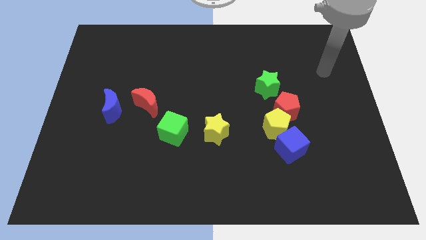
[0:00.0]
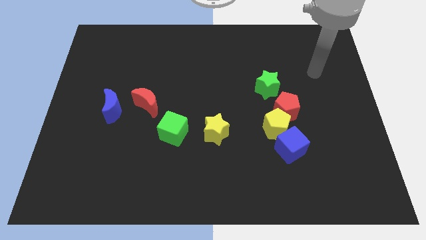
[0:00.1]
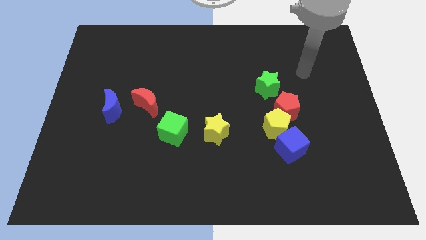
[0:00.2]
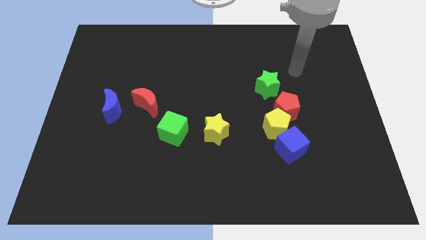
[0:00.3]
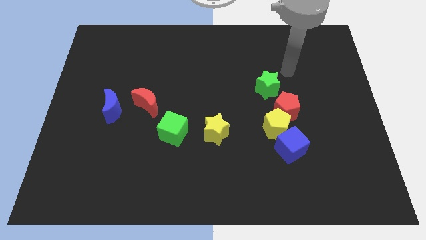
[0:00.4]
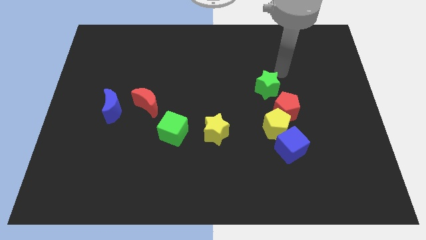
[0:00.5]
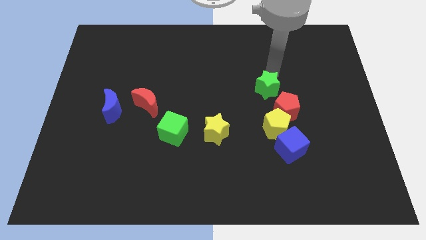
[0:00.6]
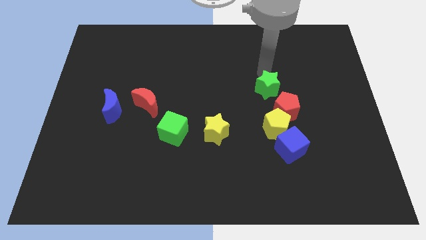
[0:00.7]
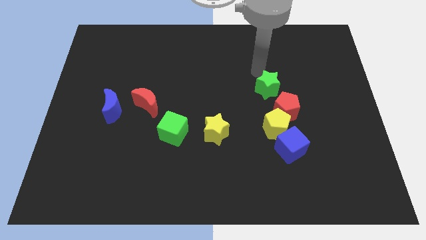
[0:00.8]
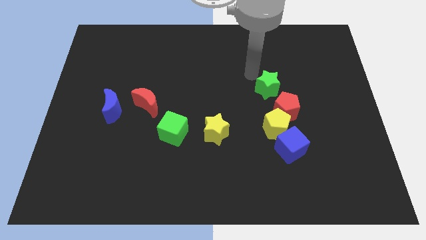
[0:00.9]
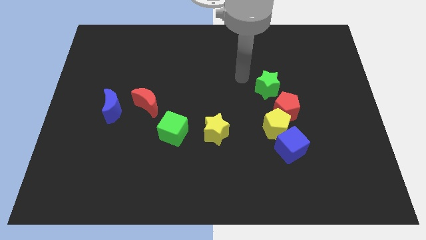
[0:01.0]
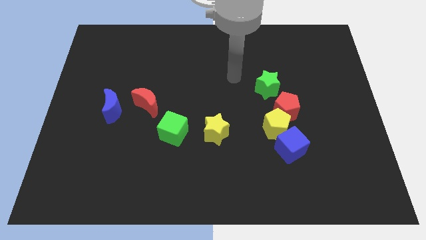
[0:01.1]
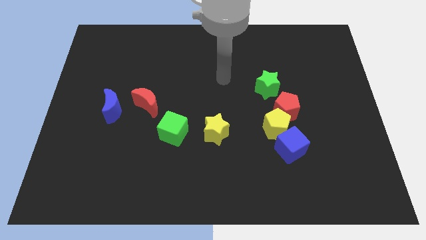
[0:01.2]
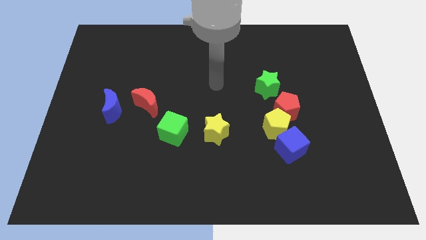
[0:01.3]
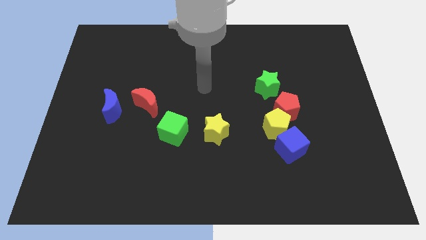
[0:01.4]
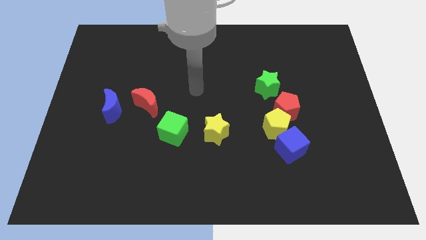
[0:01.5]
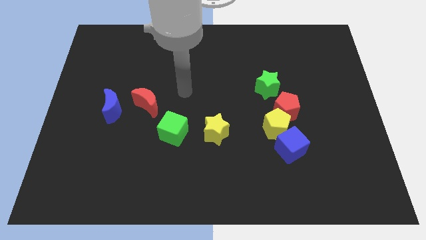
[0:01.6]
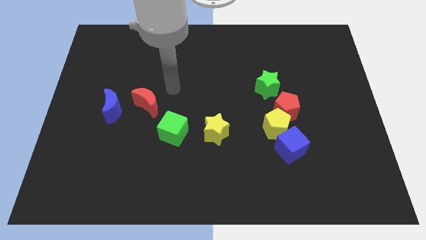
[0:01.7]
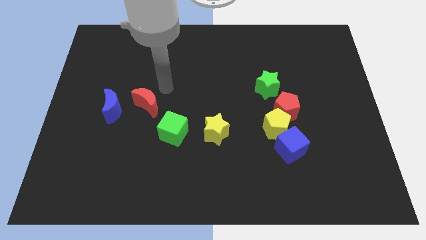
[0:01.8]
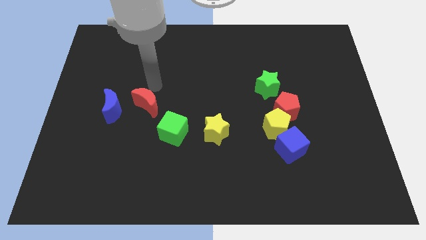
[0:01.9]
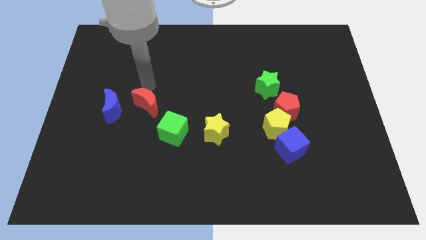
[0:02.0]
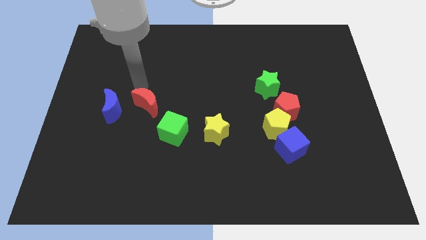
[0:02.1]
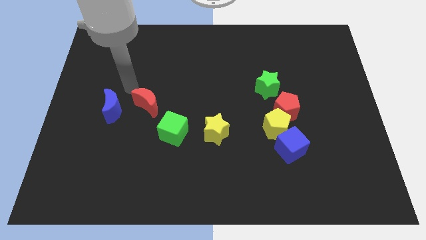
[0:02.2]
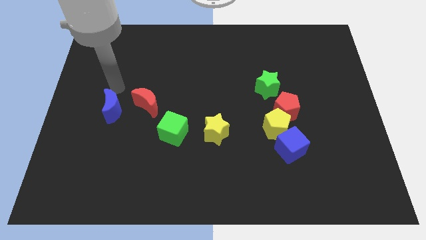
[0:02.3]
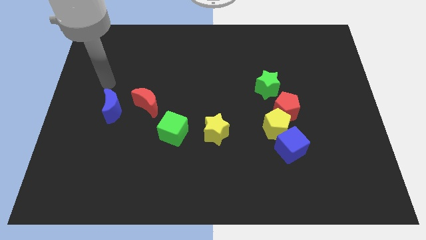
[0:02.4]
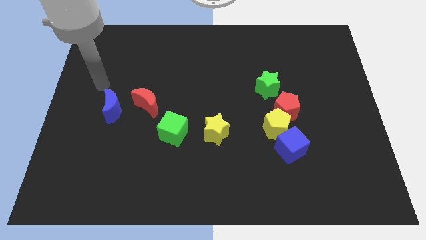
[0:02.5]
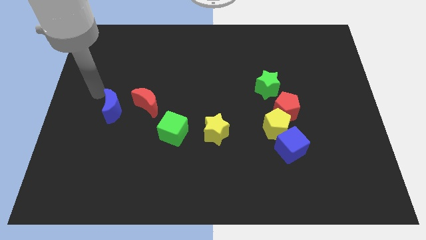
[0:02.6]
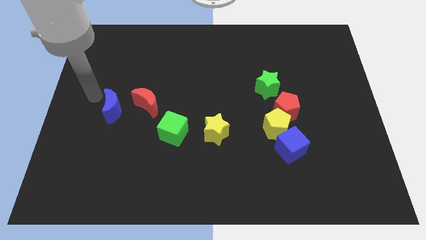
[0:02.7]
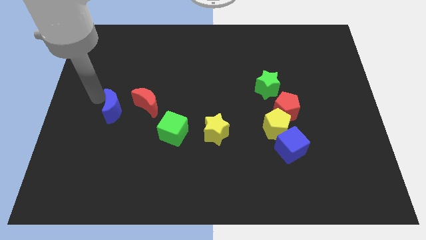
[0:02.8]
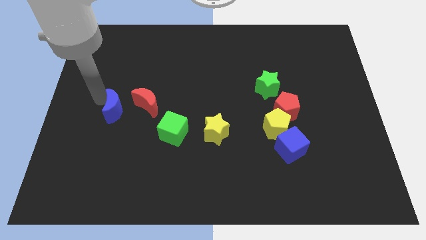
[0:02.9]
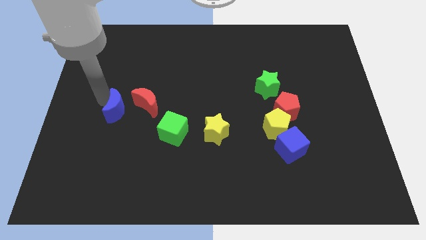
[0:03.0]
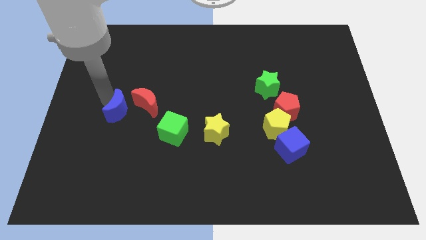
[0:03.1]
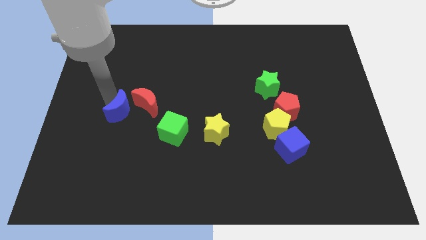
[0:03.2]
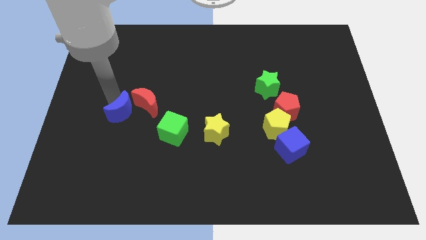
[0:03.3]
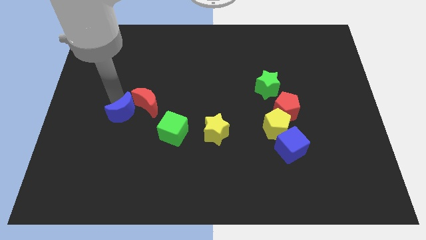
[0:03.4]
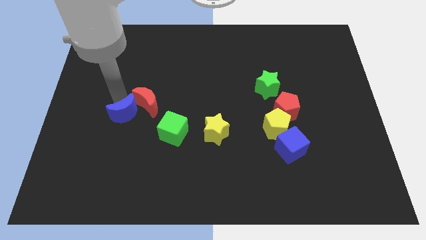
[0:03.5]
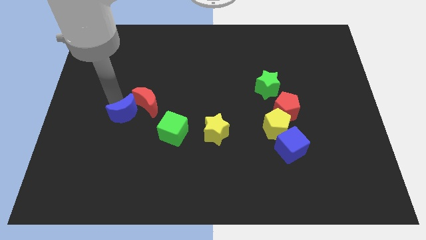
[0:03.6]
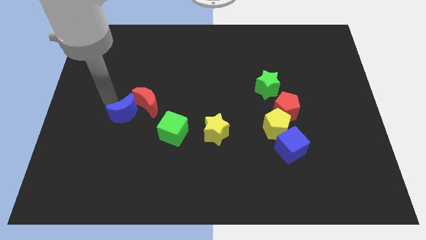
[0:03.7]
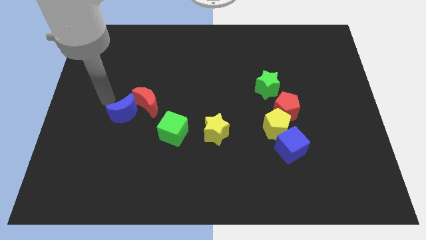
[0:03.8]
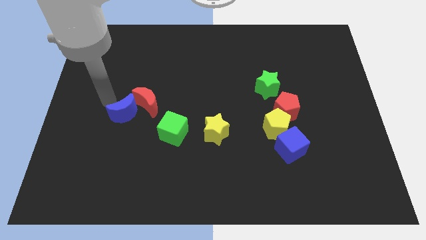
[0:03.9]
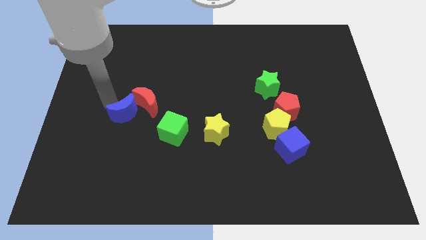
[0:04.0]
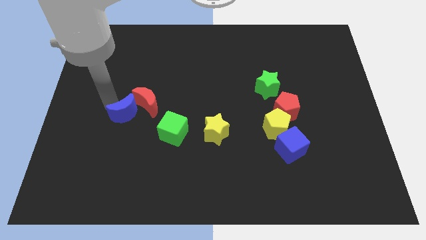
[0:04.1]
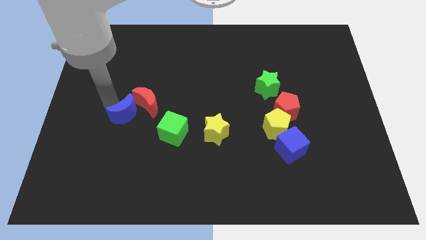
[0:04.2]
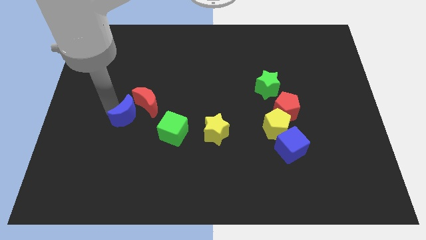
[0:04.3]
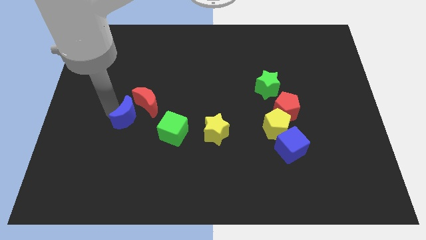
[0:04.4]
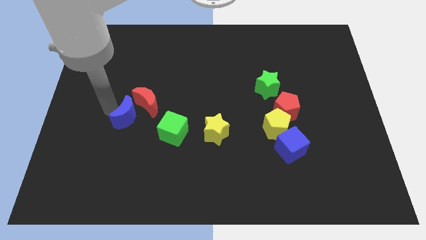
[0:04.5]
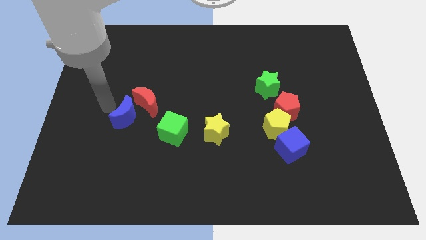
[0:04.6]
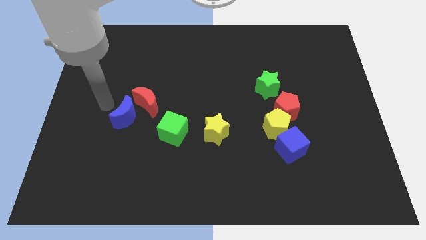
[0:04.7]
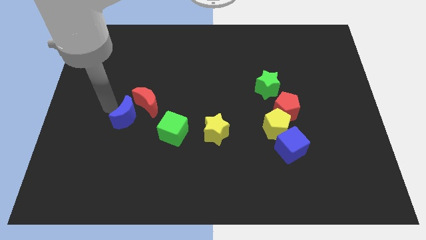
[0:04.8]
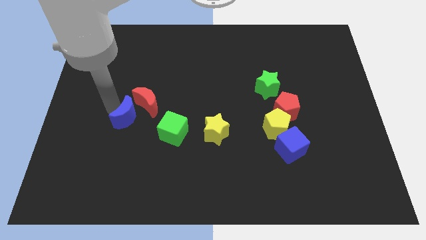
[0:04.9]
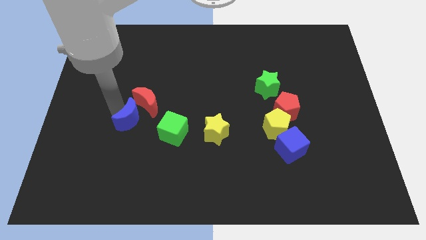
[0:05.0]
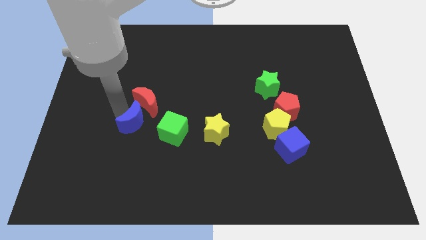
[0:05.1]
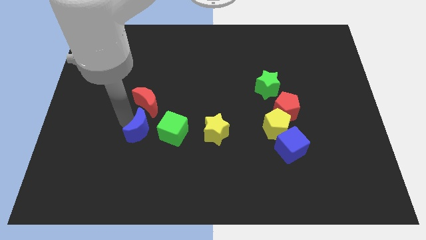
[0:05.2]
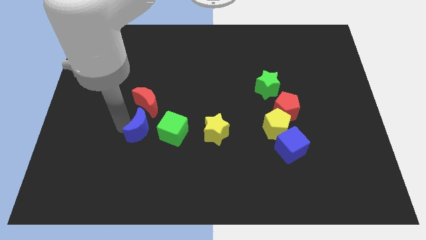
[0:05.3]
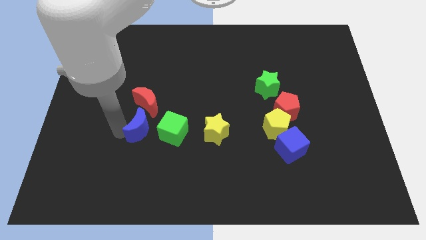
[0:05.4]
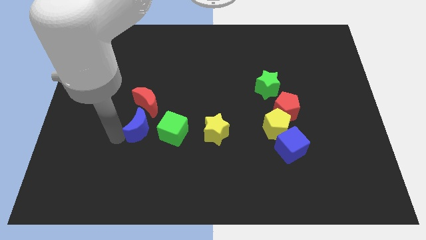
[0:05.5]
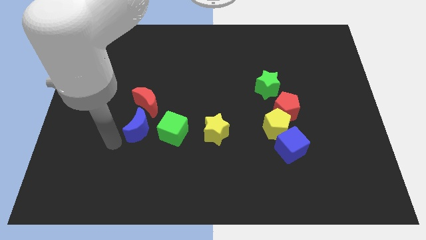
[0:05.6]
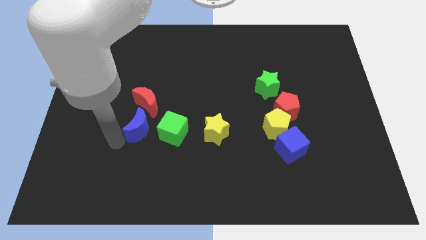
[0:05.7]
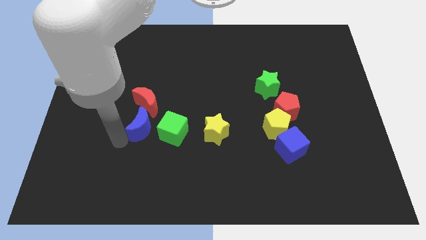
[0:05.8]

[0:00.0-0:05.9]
slide the blue moon to the left side of the yellow star

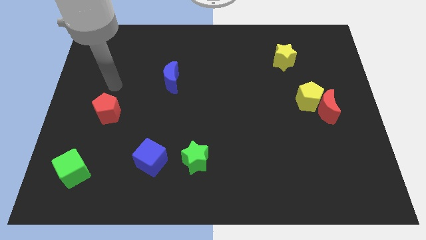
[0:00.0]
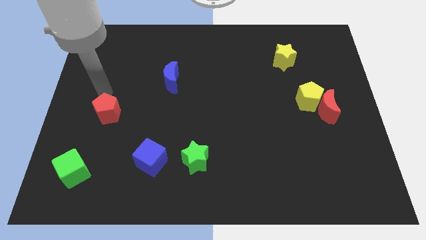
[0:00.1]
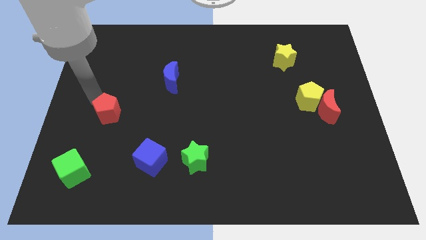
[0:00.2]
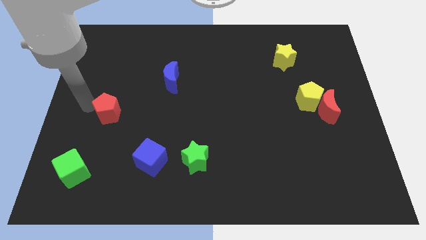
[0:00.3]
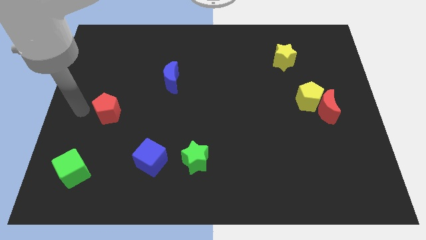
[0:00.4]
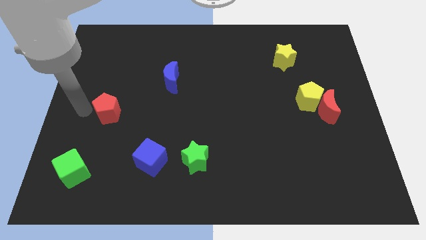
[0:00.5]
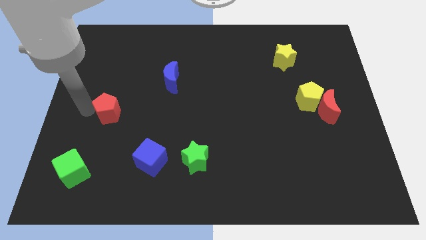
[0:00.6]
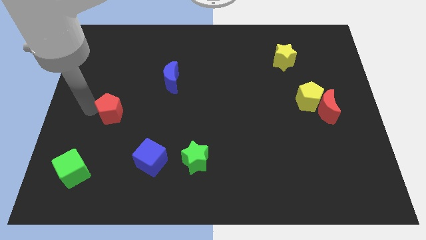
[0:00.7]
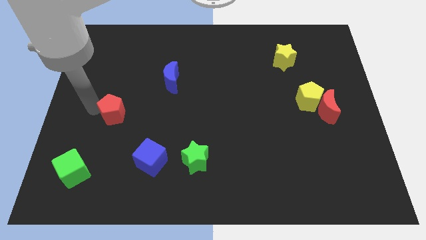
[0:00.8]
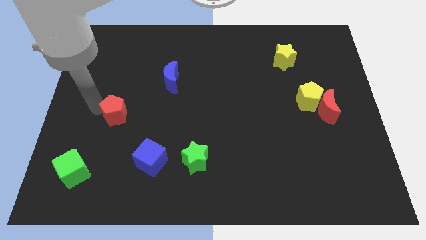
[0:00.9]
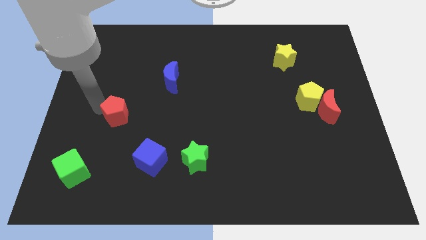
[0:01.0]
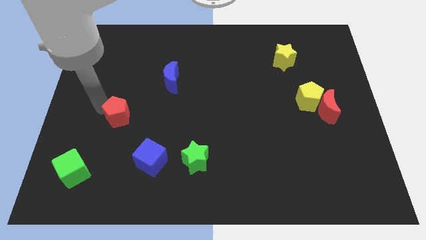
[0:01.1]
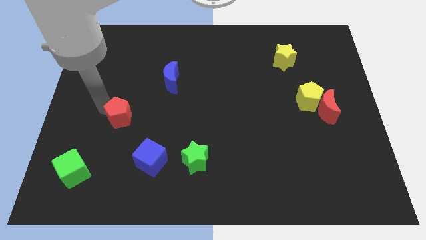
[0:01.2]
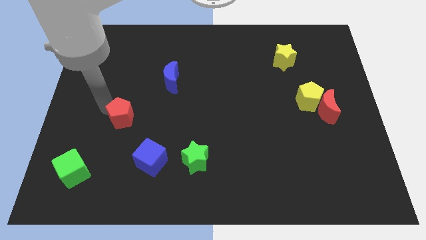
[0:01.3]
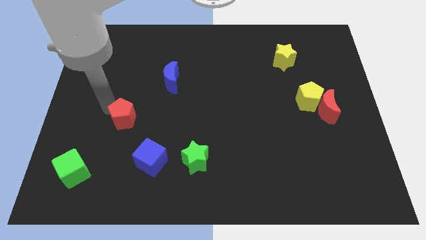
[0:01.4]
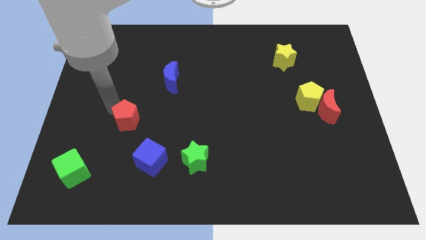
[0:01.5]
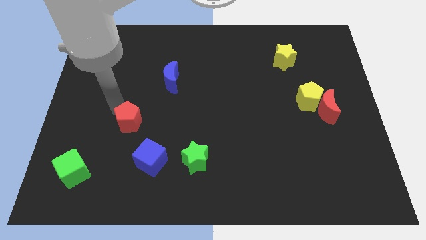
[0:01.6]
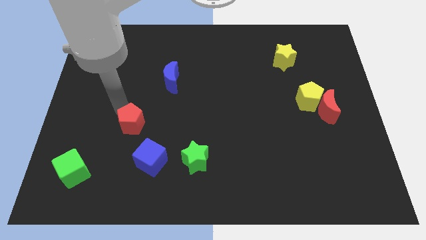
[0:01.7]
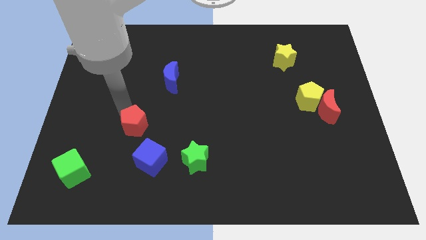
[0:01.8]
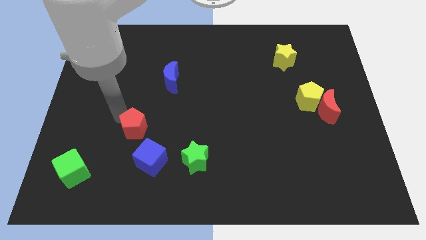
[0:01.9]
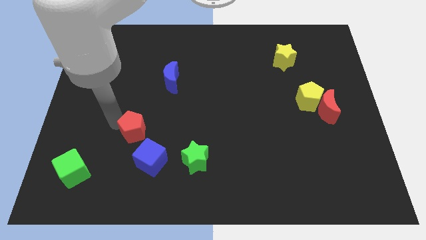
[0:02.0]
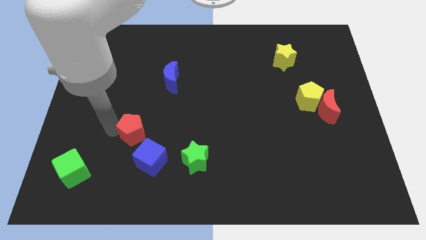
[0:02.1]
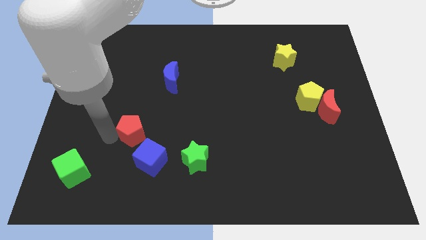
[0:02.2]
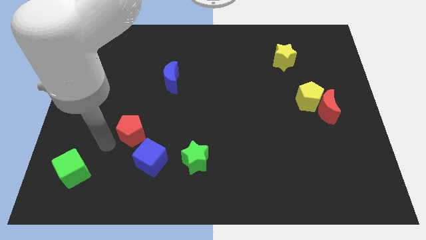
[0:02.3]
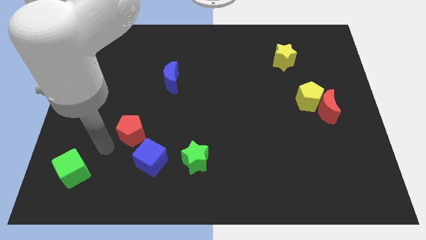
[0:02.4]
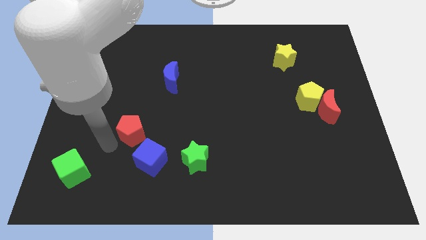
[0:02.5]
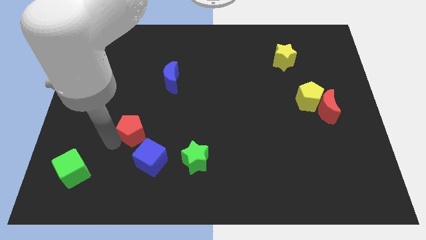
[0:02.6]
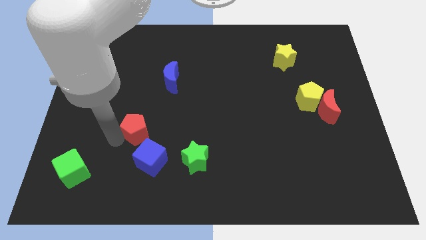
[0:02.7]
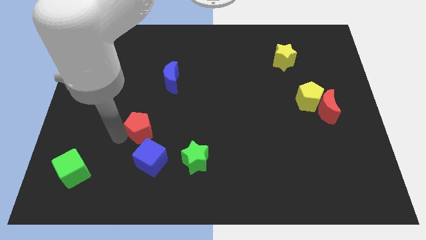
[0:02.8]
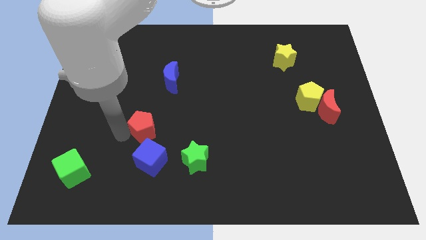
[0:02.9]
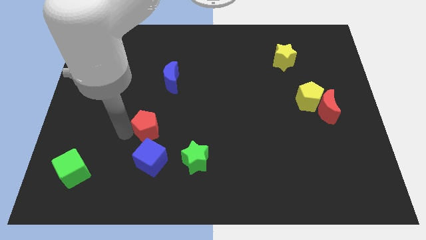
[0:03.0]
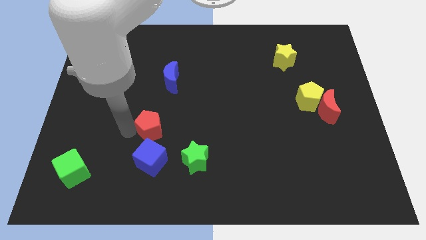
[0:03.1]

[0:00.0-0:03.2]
put the red pentagon to the bottom side of the blue moon
